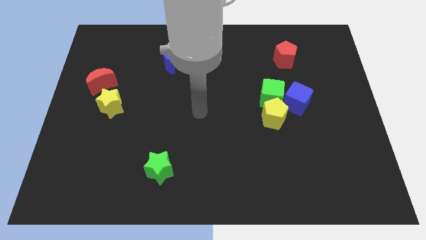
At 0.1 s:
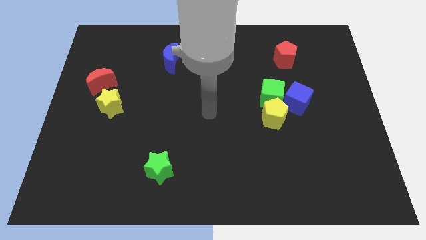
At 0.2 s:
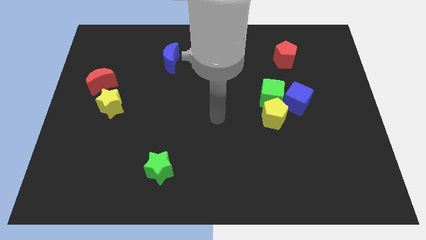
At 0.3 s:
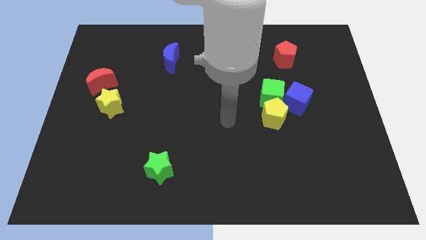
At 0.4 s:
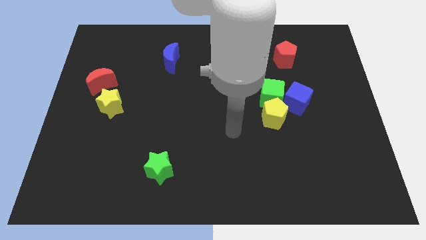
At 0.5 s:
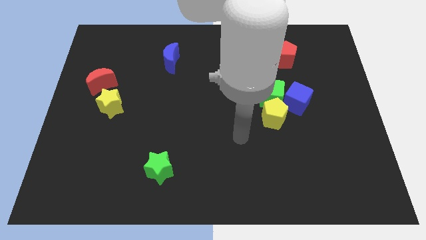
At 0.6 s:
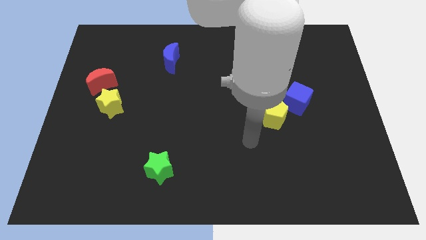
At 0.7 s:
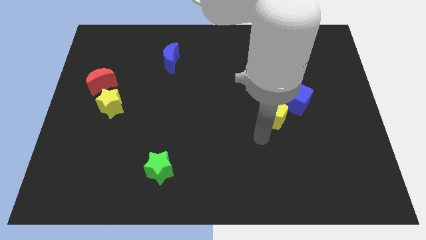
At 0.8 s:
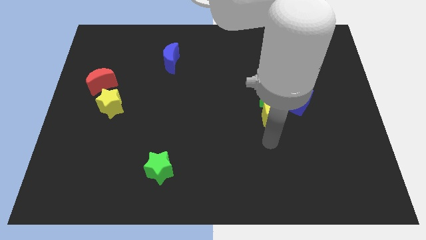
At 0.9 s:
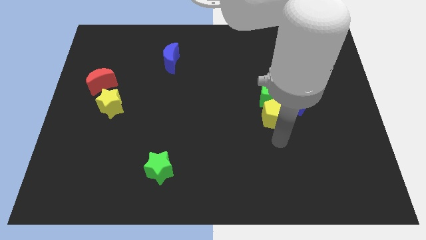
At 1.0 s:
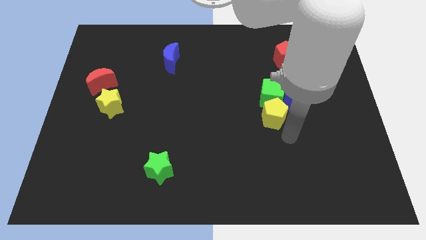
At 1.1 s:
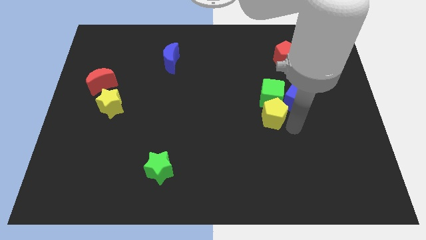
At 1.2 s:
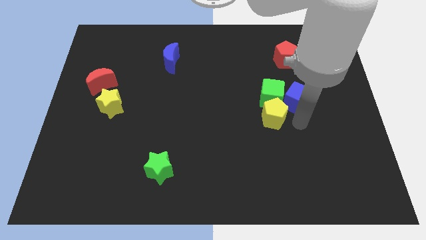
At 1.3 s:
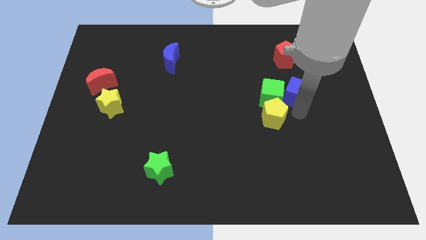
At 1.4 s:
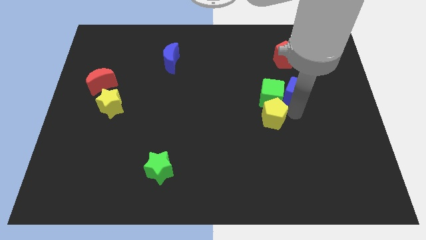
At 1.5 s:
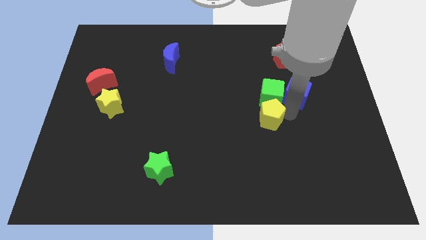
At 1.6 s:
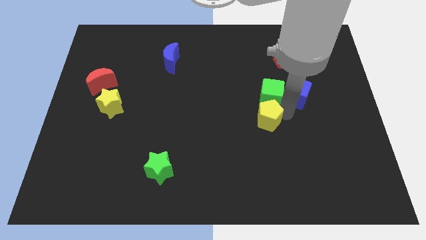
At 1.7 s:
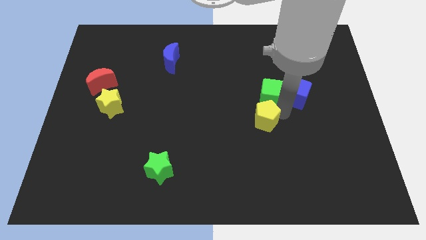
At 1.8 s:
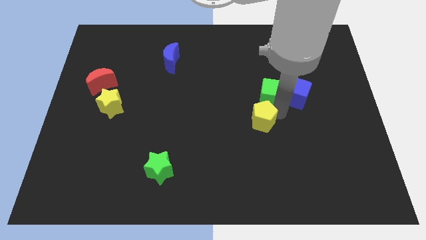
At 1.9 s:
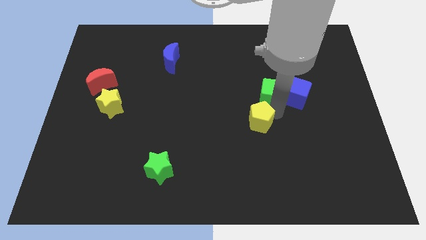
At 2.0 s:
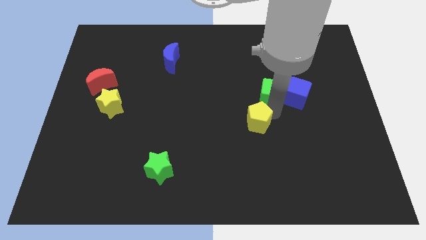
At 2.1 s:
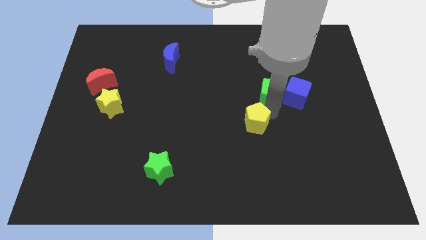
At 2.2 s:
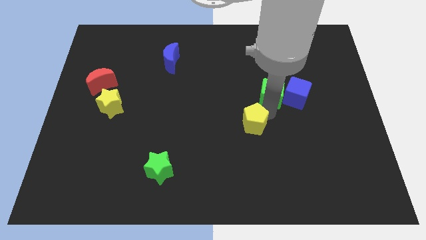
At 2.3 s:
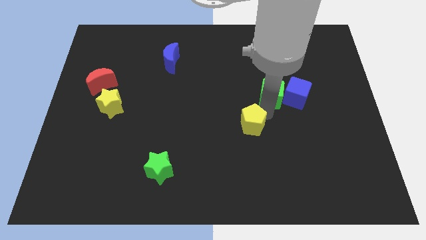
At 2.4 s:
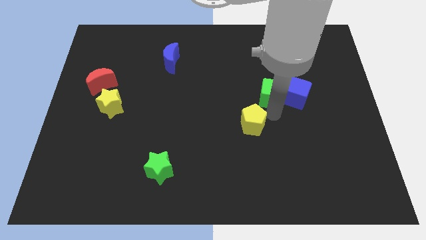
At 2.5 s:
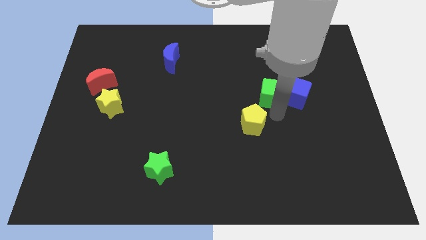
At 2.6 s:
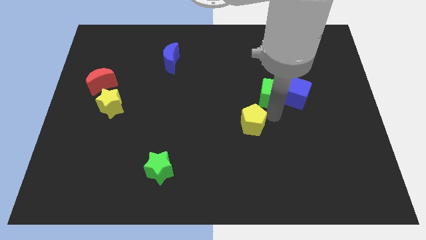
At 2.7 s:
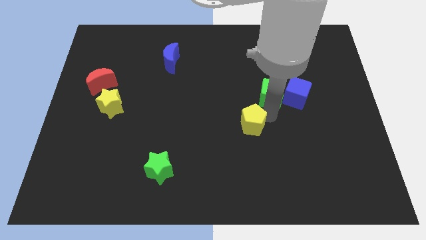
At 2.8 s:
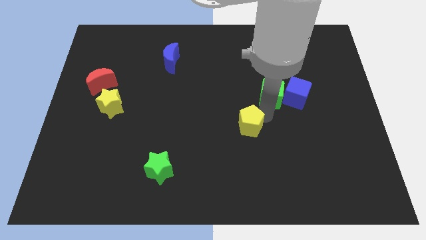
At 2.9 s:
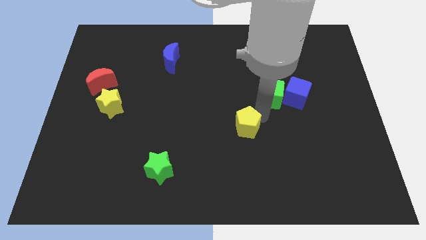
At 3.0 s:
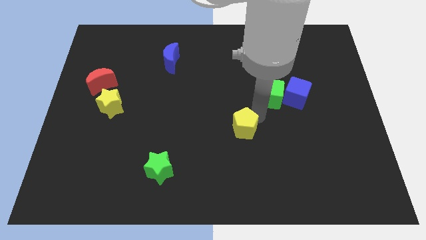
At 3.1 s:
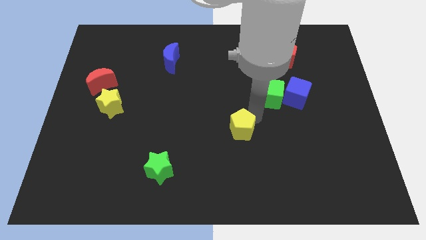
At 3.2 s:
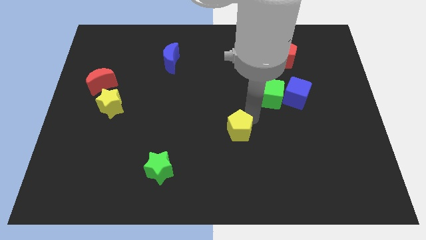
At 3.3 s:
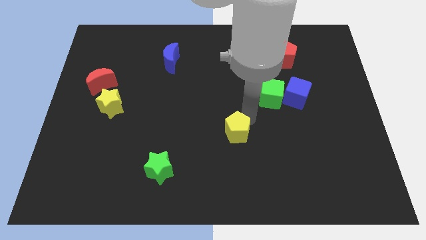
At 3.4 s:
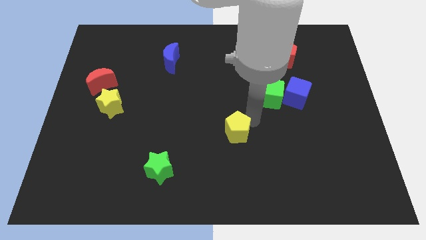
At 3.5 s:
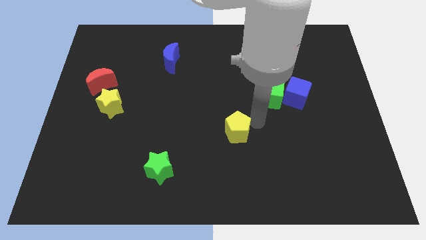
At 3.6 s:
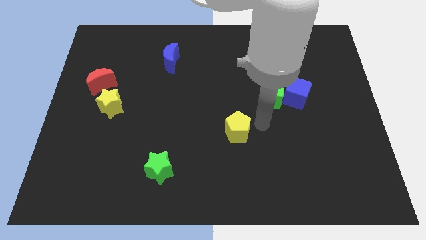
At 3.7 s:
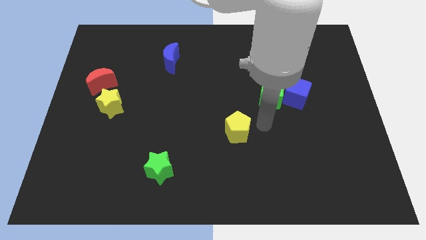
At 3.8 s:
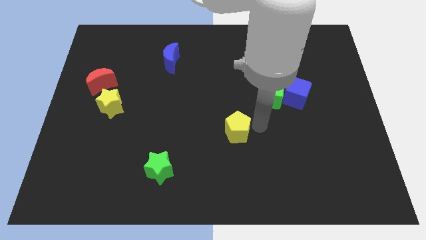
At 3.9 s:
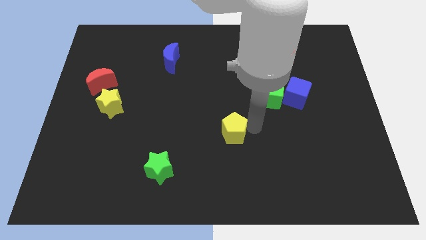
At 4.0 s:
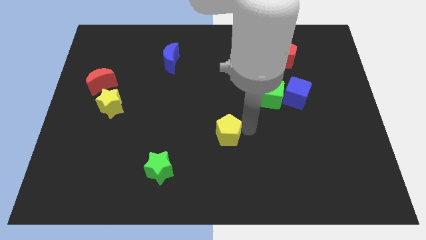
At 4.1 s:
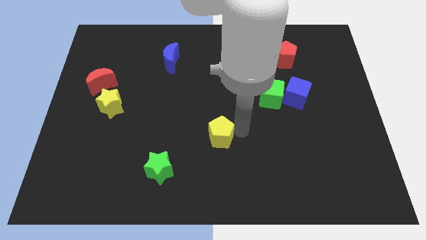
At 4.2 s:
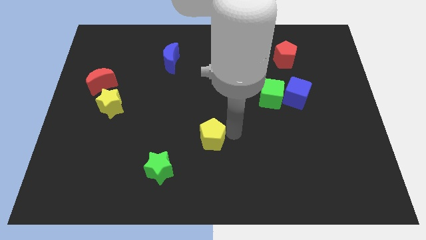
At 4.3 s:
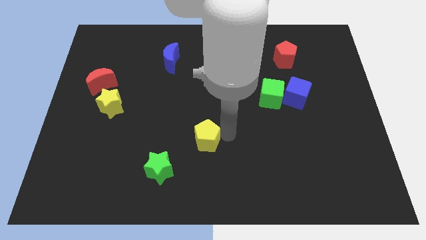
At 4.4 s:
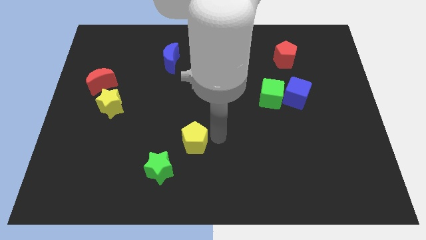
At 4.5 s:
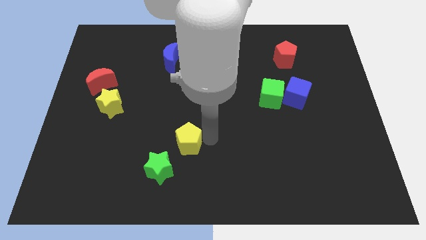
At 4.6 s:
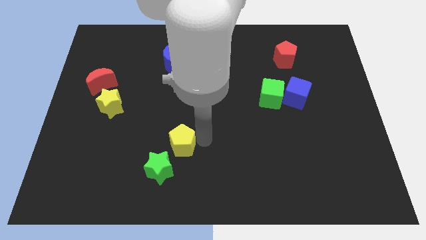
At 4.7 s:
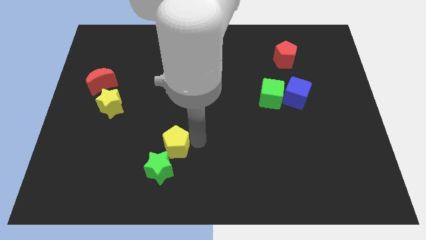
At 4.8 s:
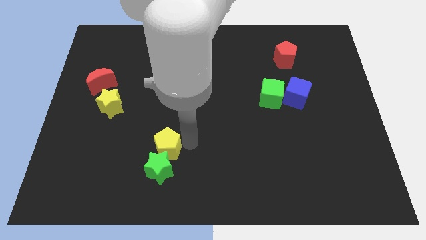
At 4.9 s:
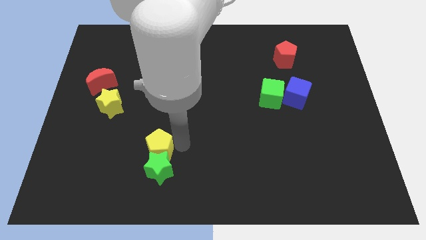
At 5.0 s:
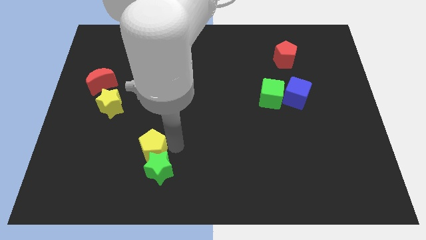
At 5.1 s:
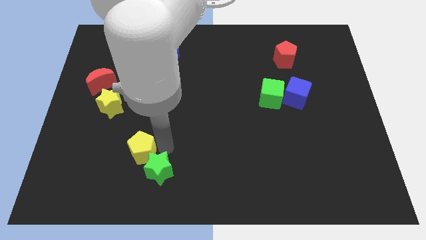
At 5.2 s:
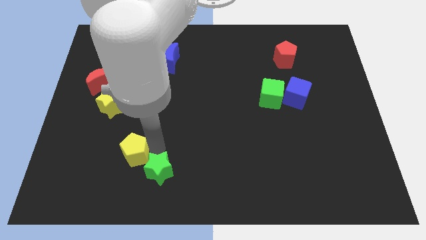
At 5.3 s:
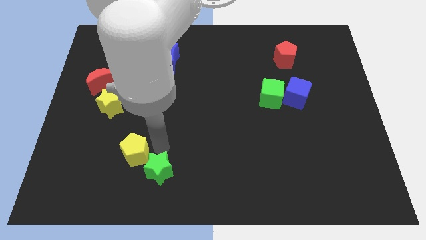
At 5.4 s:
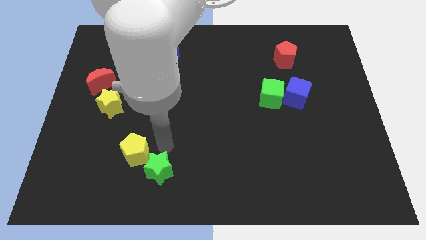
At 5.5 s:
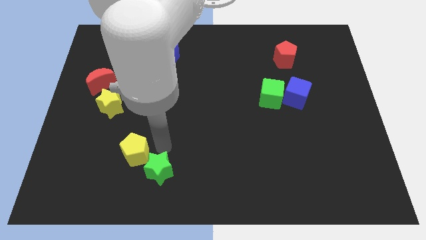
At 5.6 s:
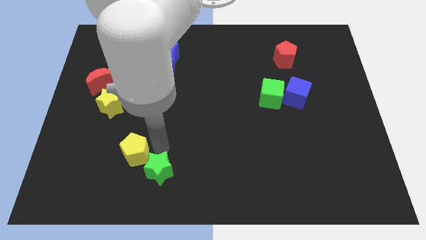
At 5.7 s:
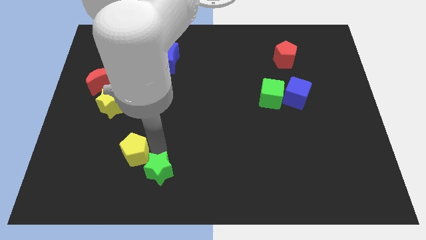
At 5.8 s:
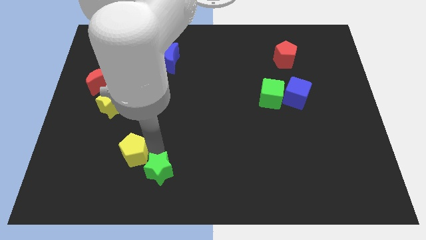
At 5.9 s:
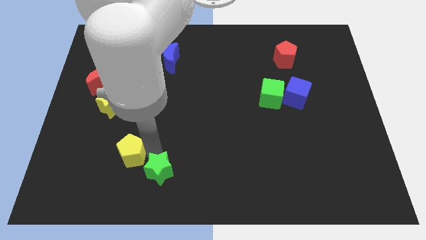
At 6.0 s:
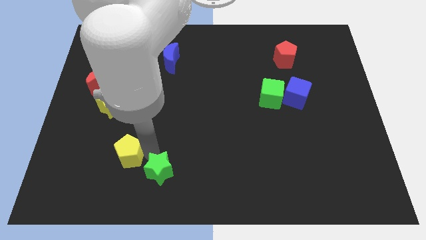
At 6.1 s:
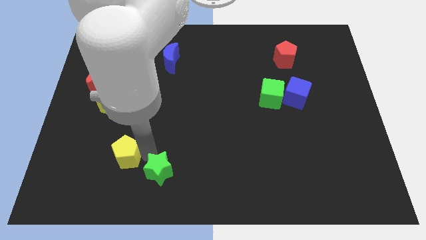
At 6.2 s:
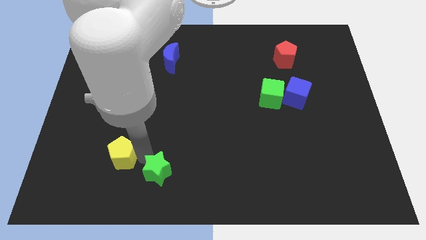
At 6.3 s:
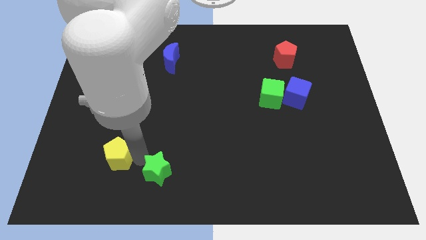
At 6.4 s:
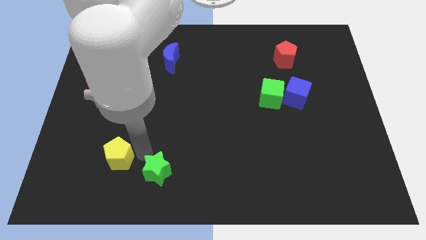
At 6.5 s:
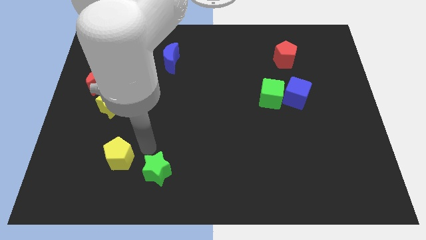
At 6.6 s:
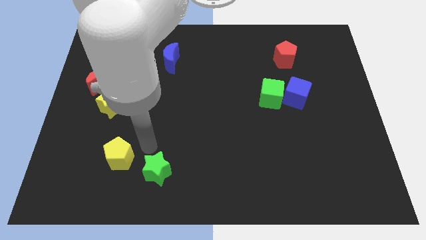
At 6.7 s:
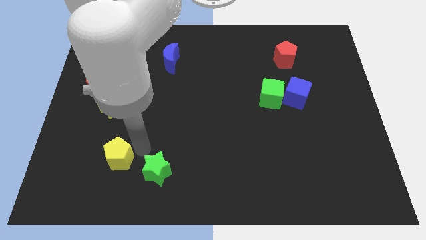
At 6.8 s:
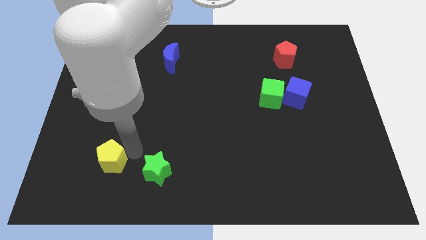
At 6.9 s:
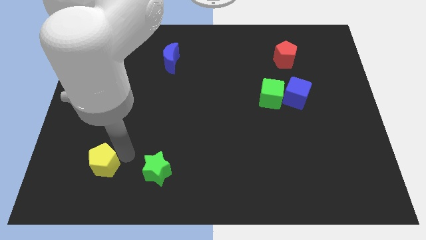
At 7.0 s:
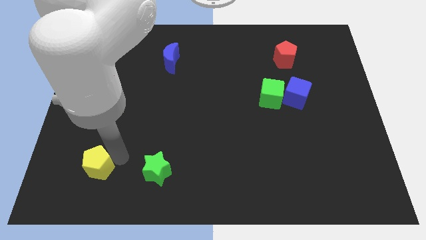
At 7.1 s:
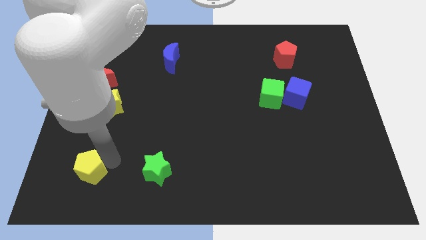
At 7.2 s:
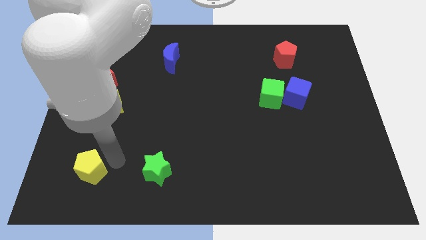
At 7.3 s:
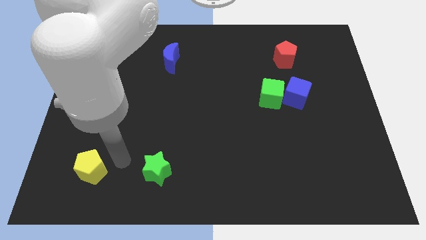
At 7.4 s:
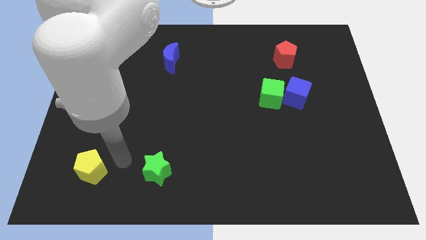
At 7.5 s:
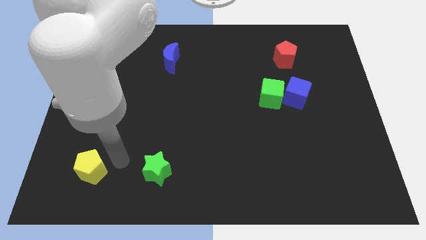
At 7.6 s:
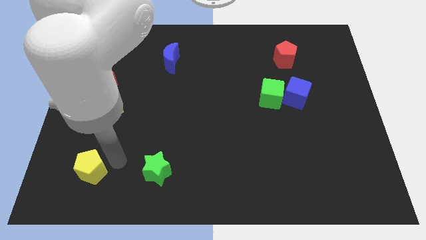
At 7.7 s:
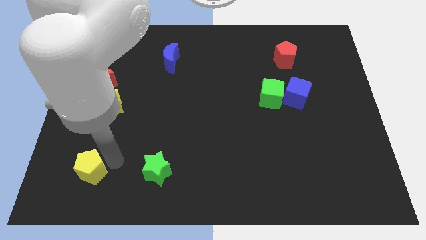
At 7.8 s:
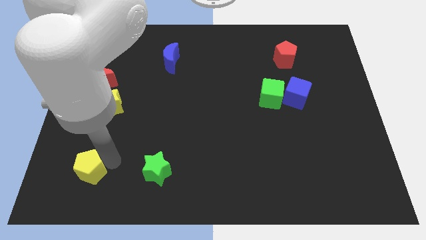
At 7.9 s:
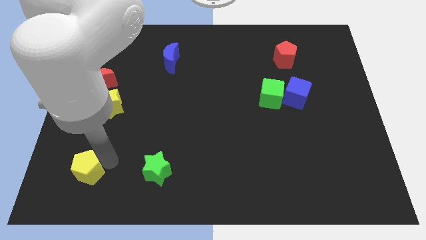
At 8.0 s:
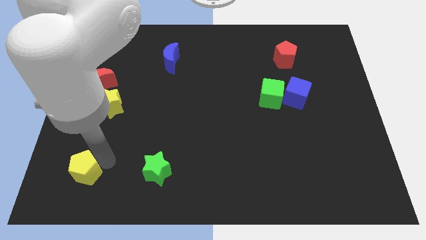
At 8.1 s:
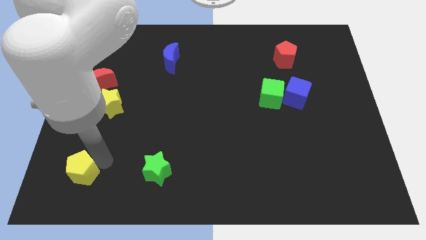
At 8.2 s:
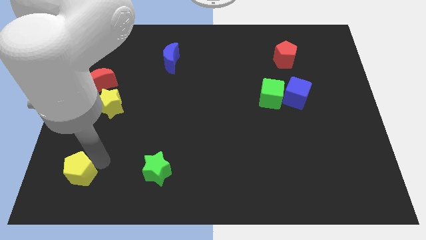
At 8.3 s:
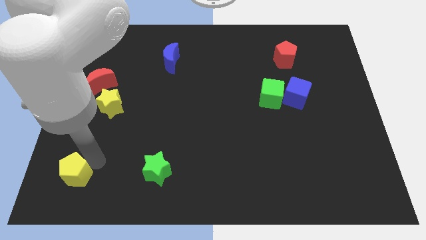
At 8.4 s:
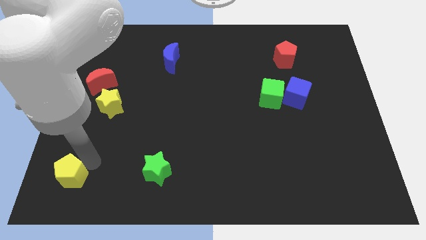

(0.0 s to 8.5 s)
push the yellow pentagon to the bottom left corner
